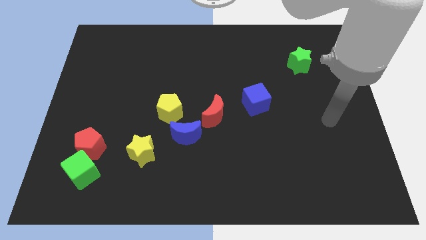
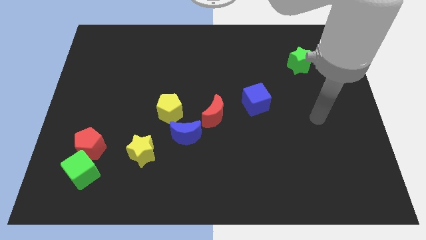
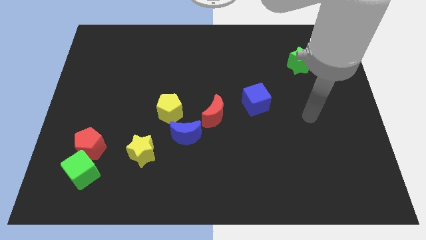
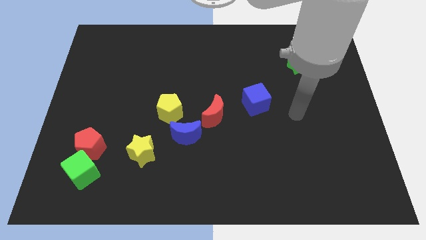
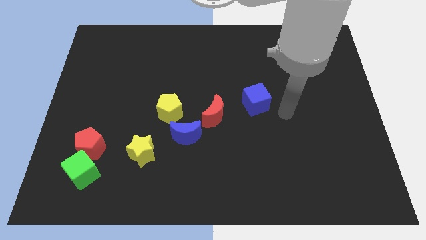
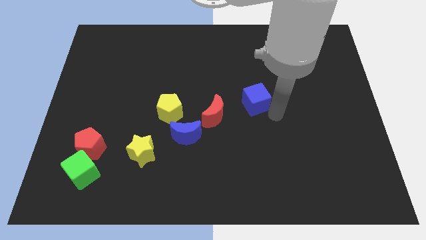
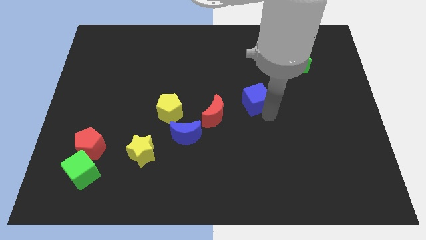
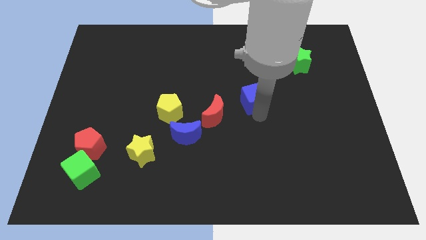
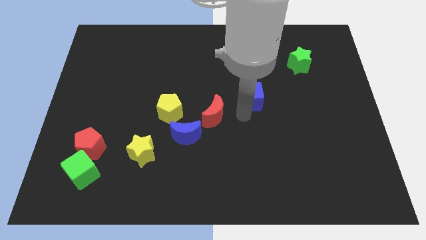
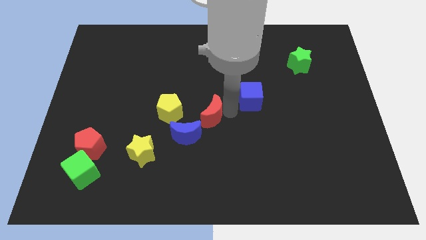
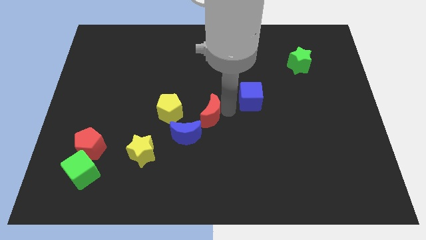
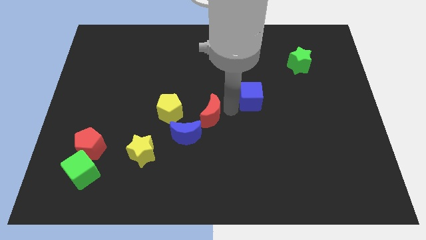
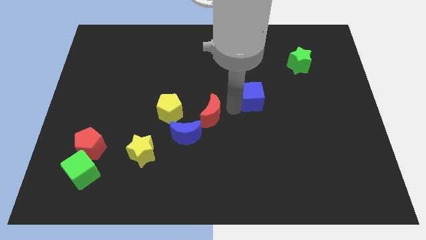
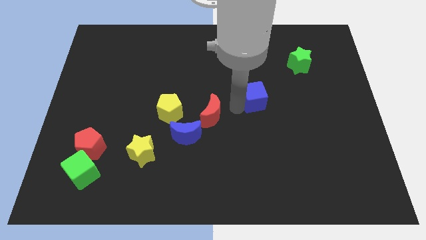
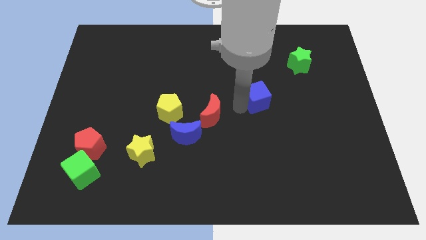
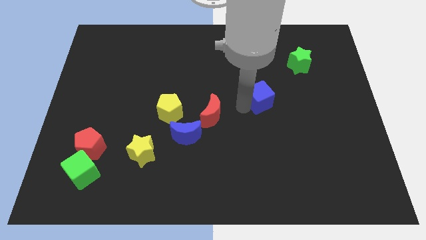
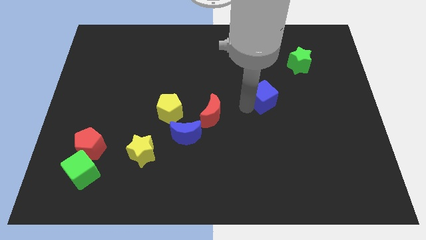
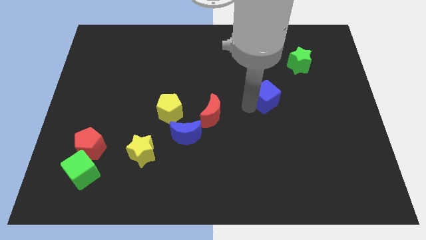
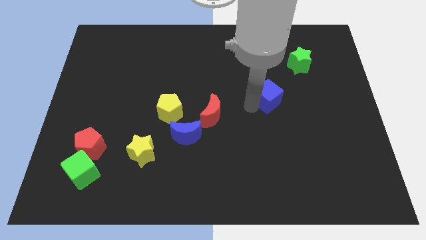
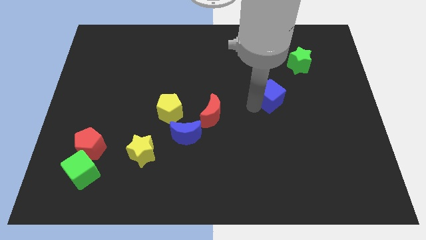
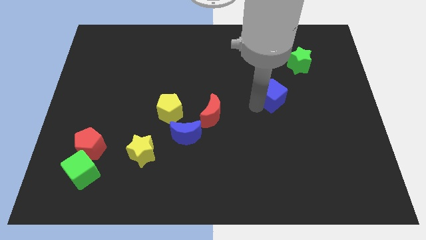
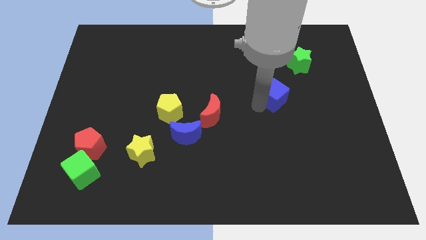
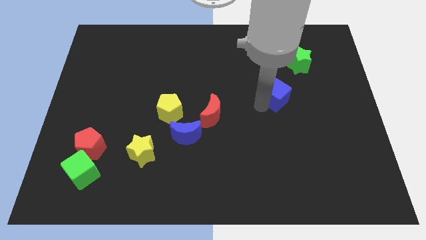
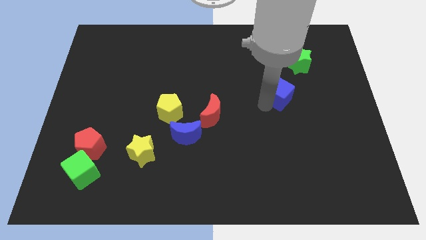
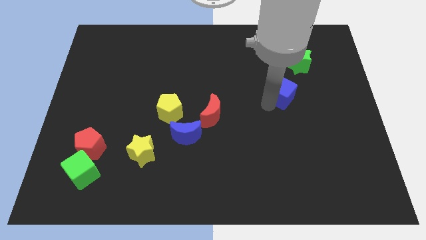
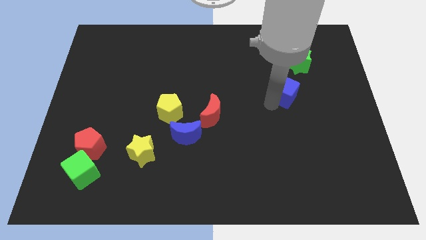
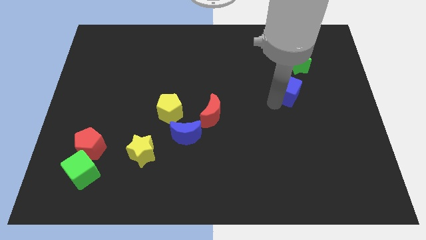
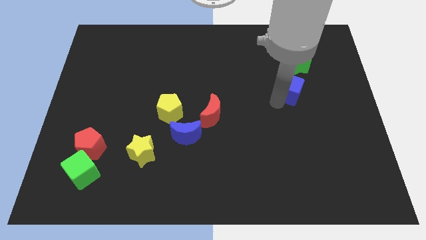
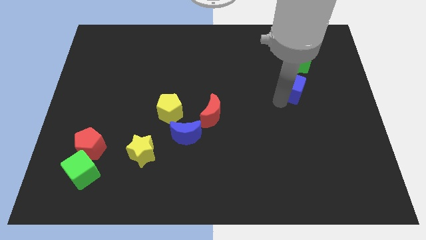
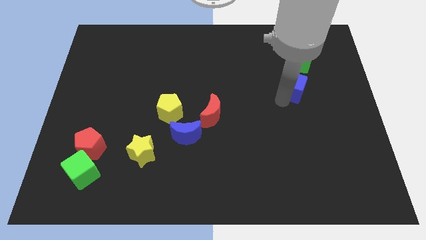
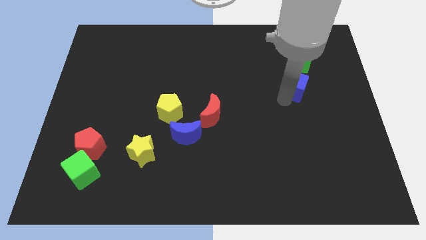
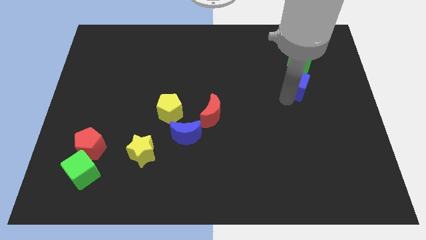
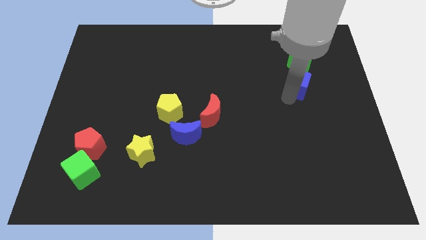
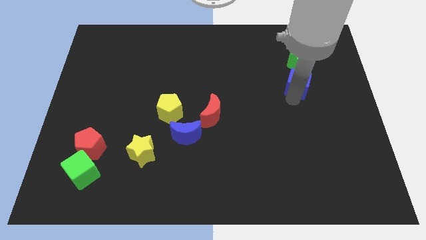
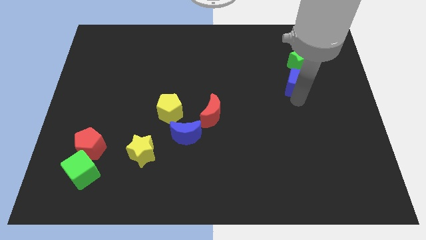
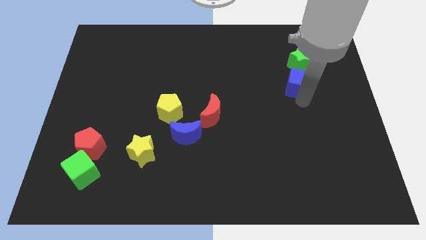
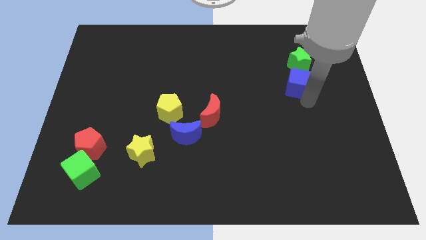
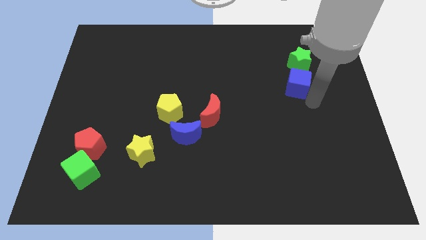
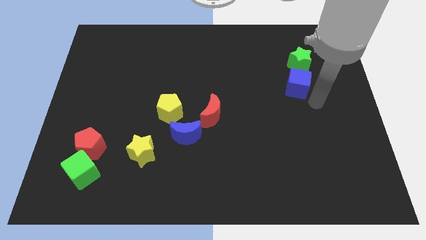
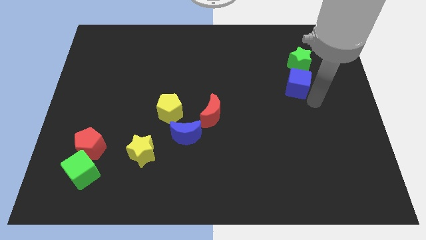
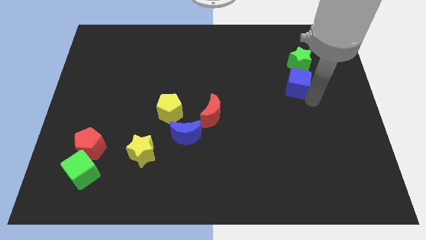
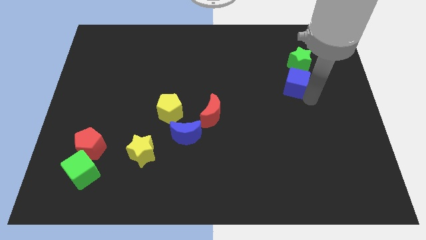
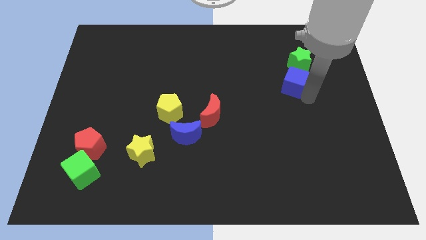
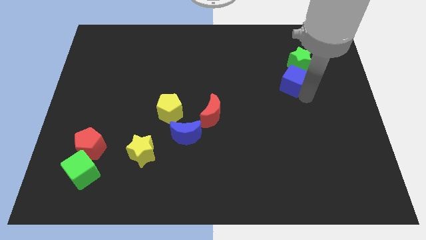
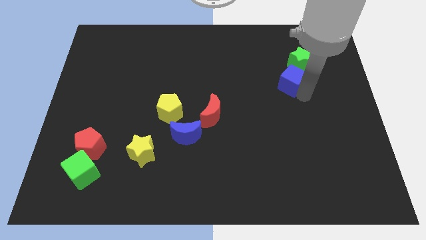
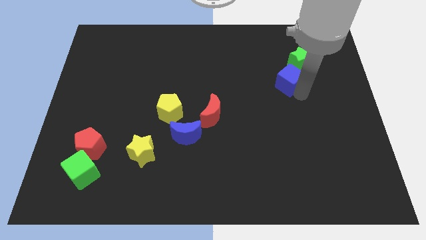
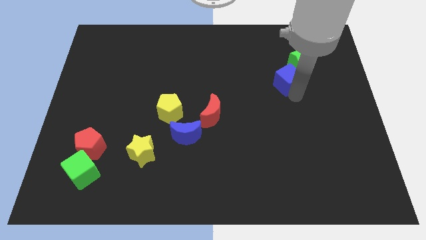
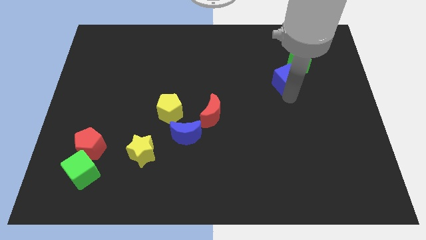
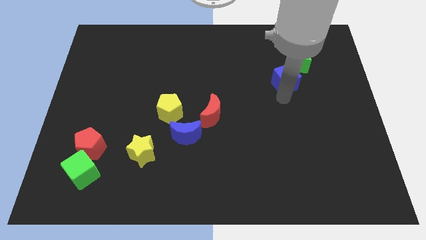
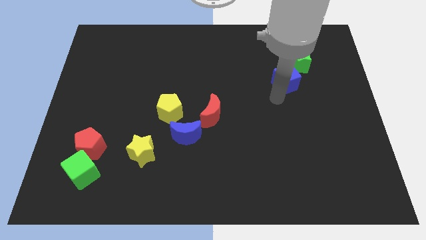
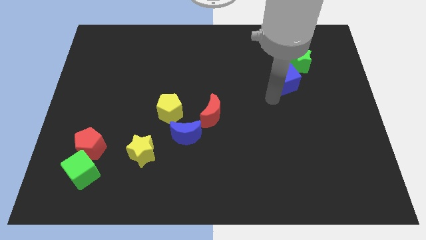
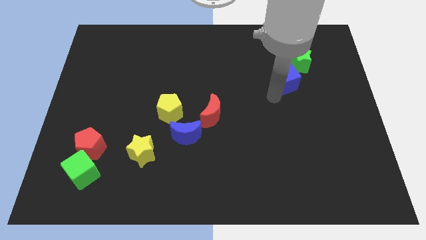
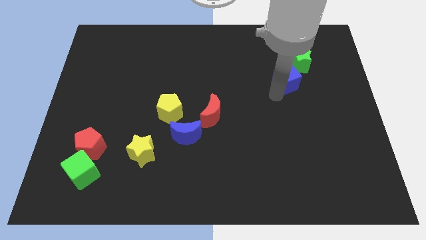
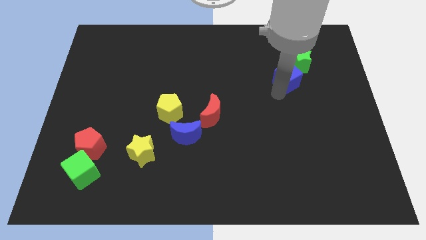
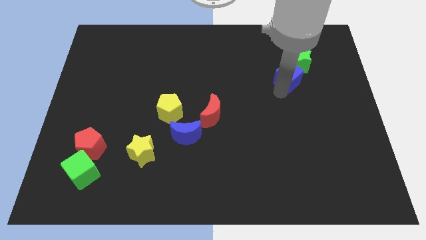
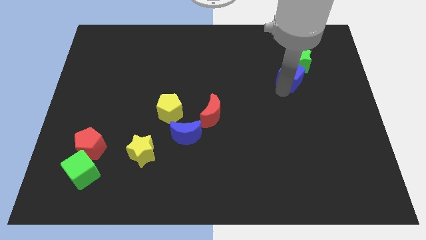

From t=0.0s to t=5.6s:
put the blue cube next to the green star

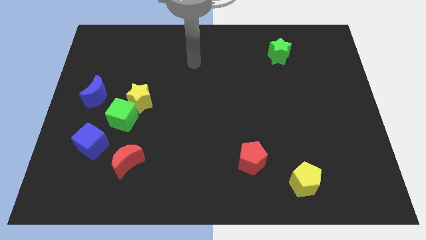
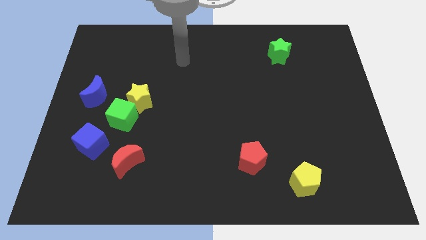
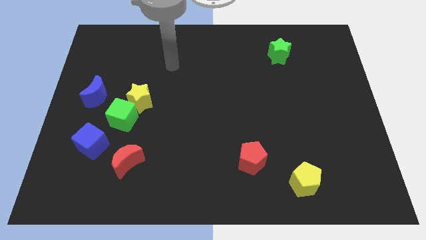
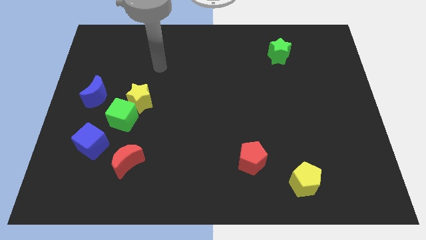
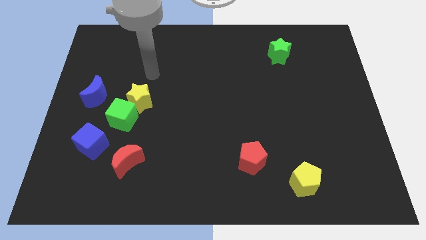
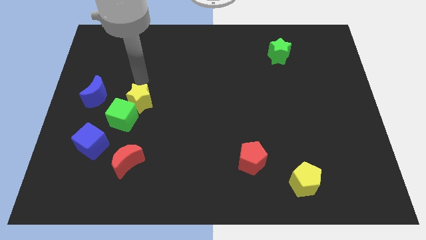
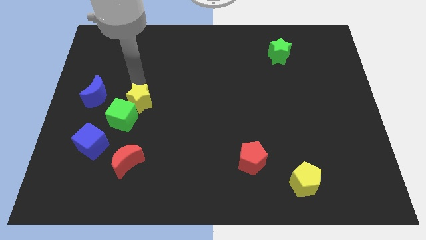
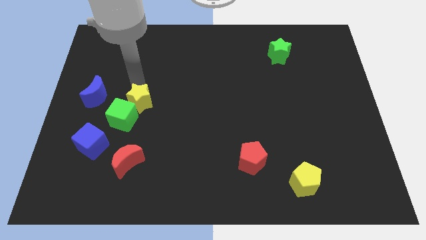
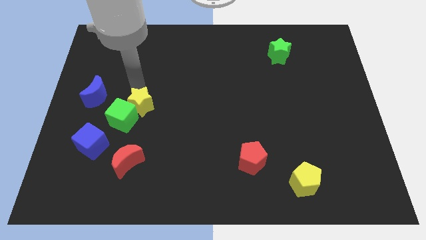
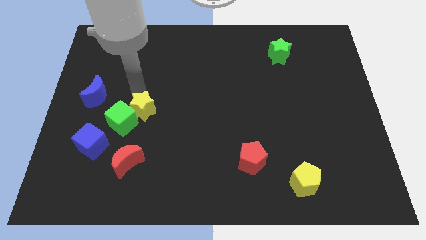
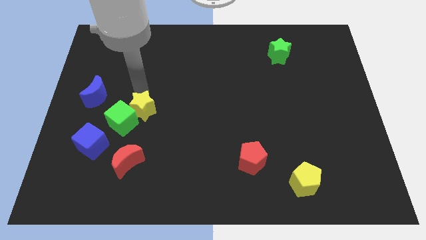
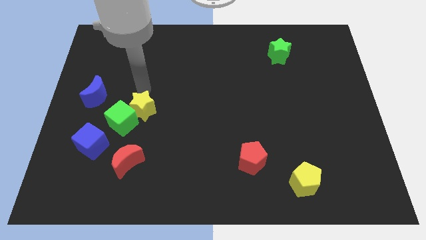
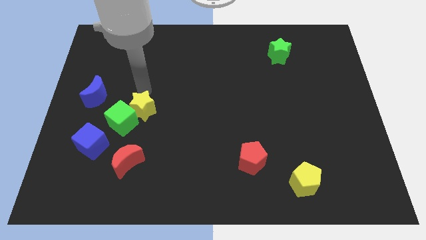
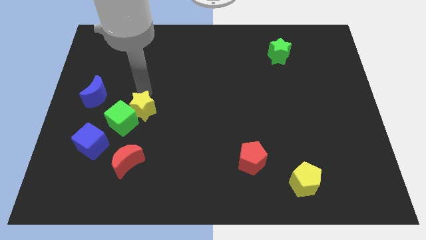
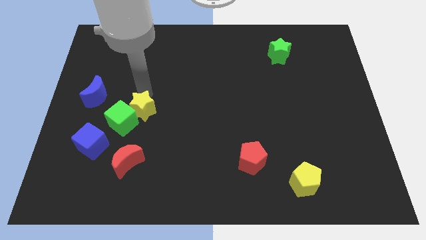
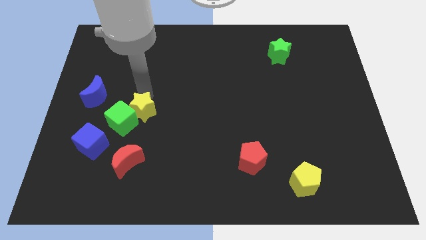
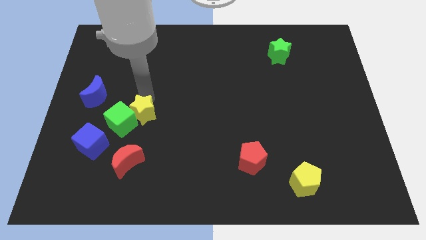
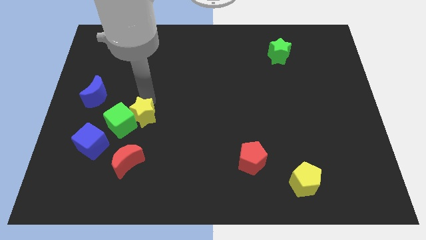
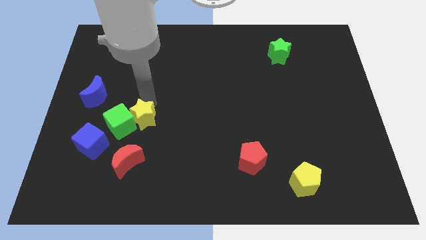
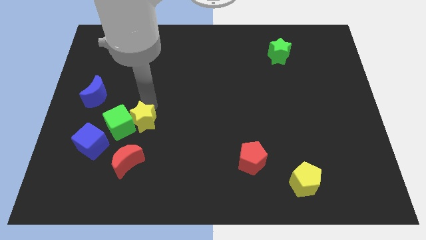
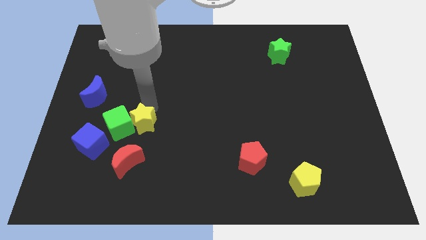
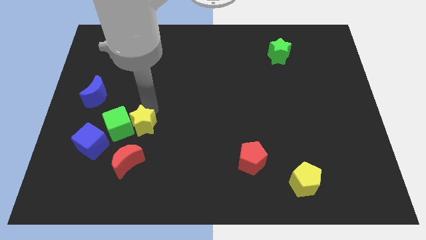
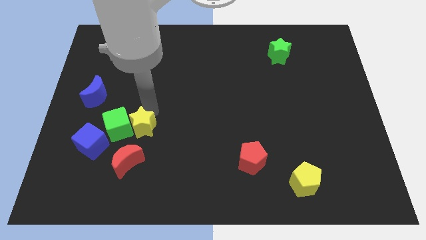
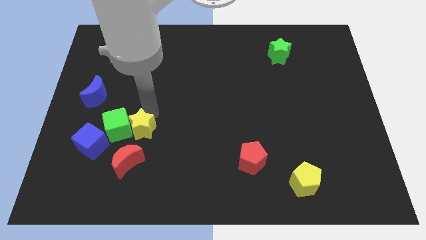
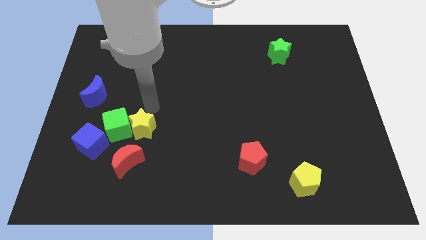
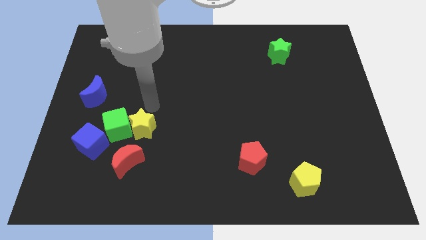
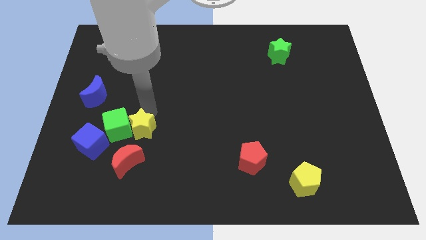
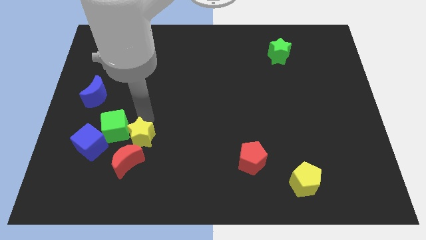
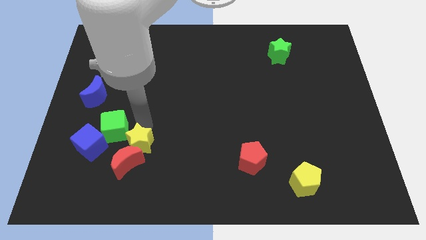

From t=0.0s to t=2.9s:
move the yellow star to the red moon
